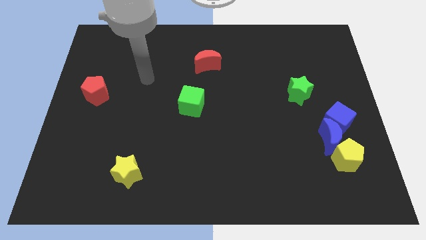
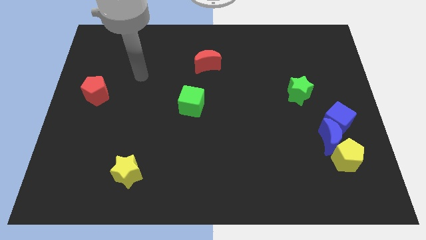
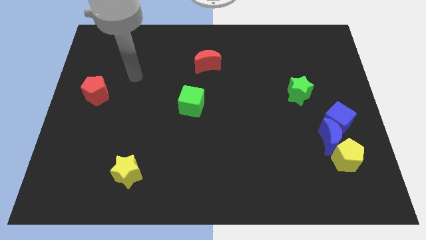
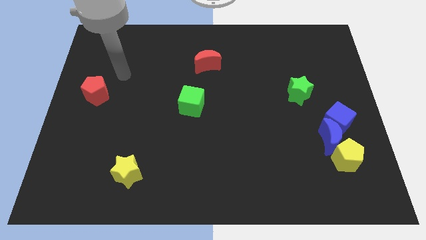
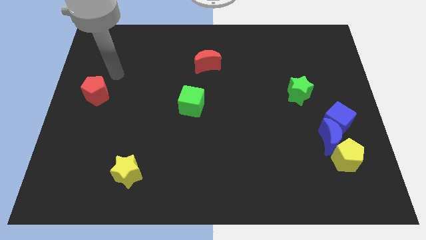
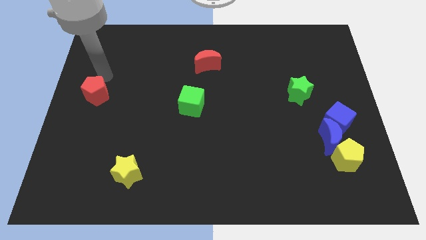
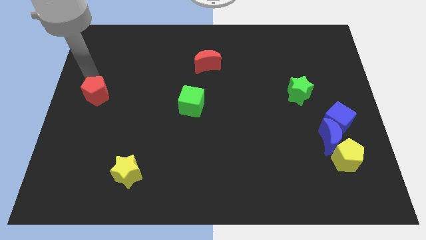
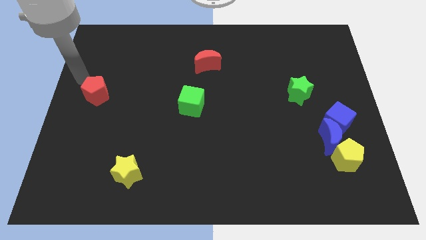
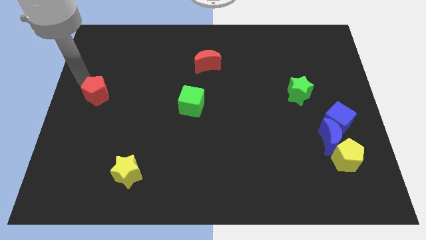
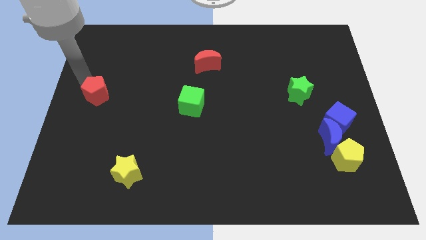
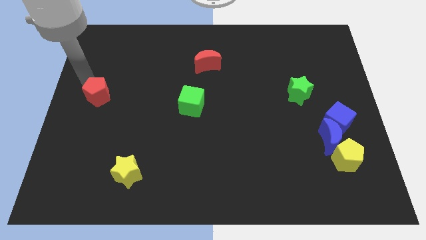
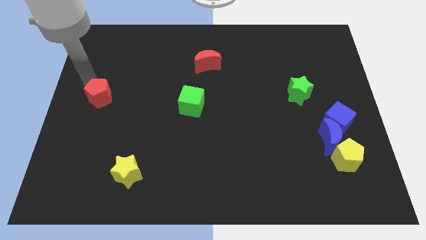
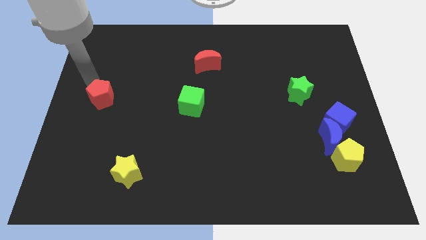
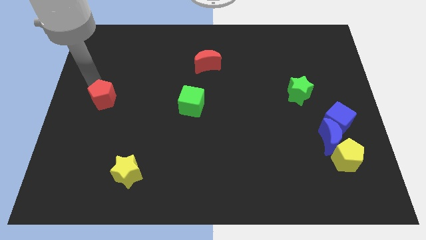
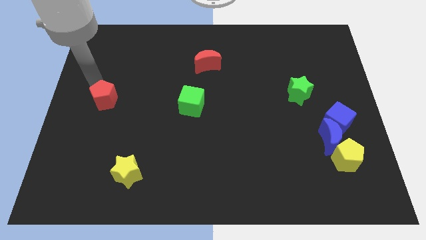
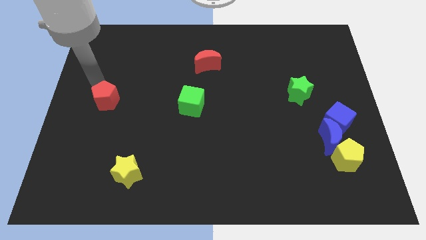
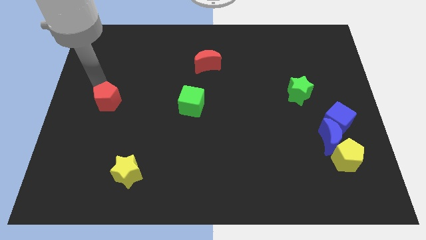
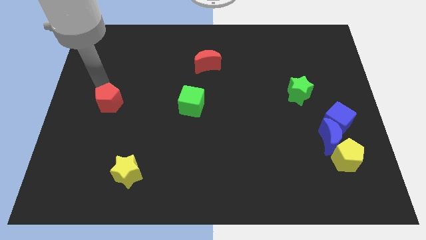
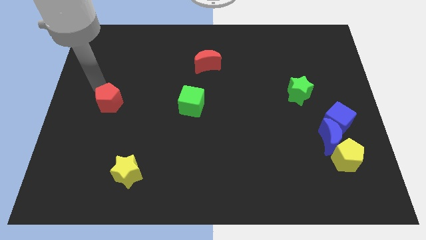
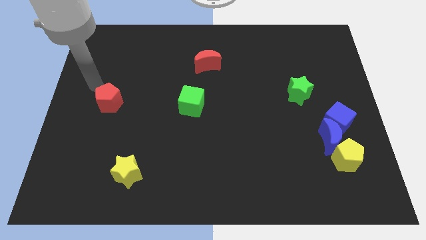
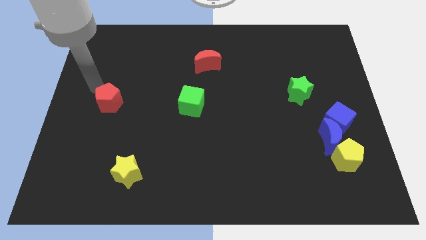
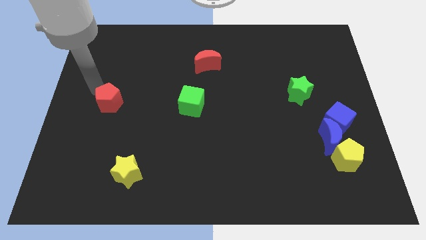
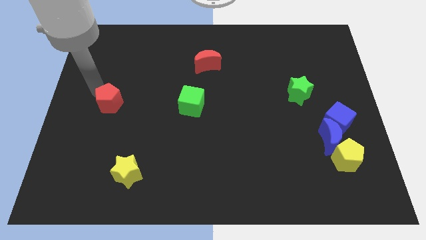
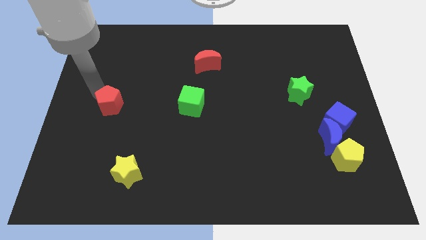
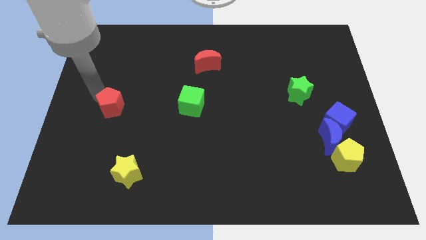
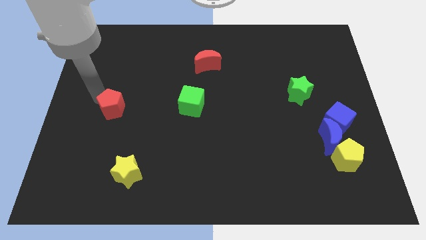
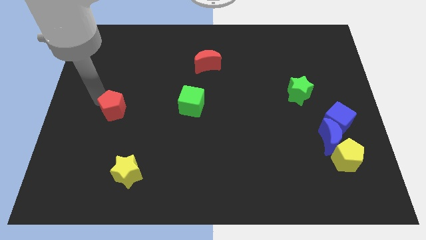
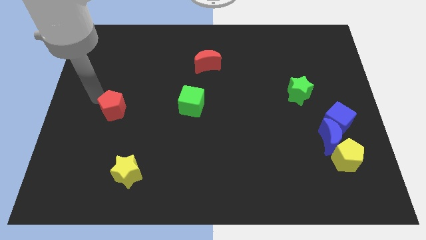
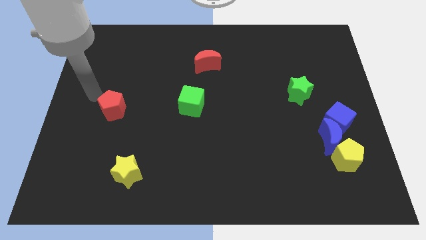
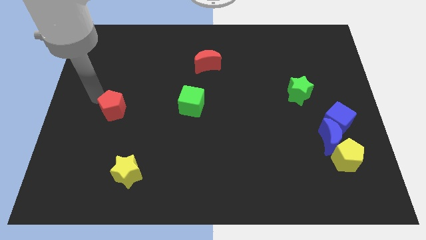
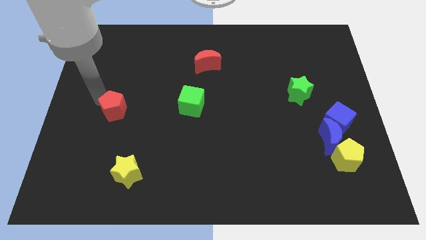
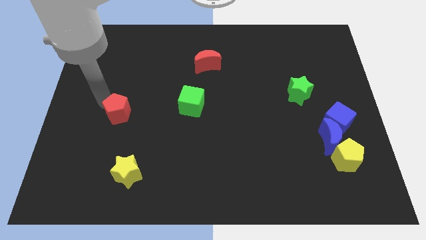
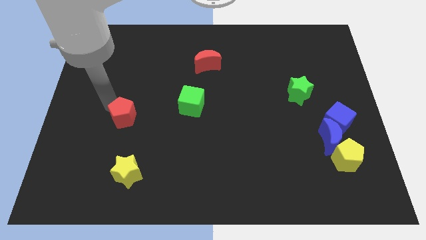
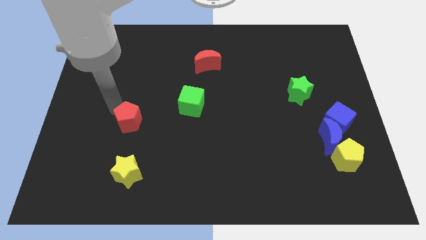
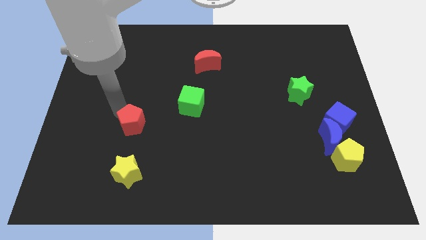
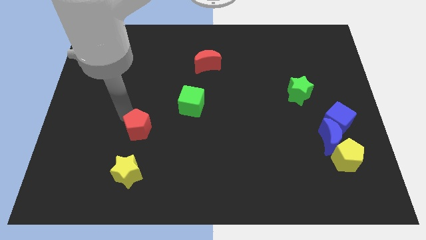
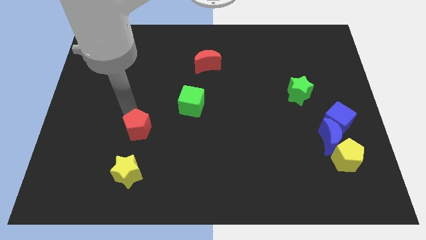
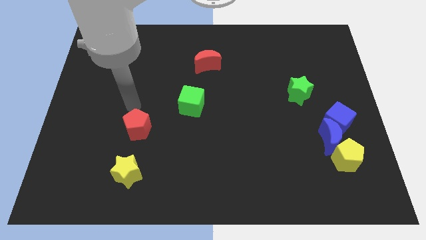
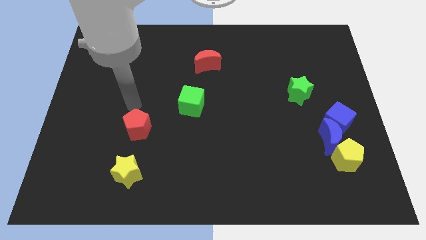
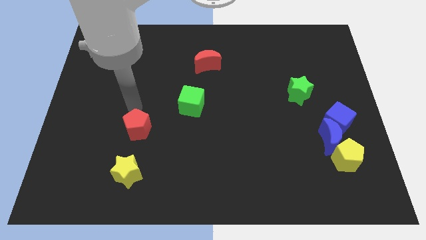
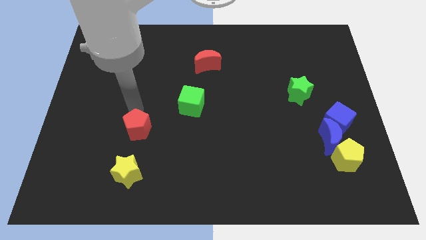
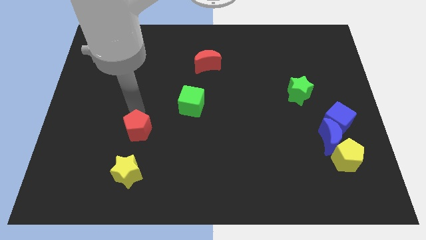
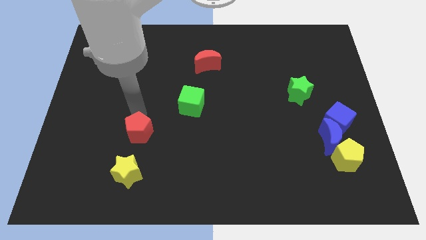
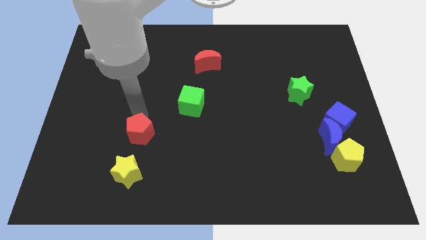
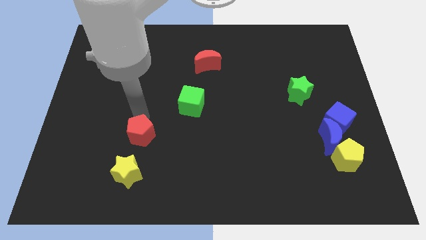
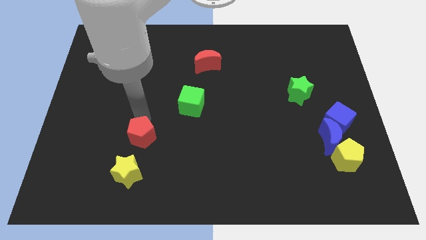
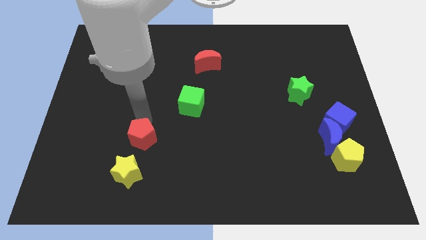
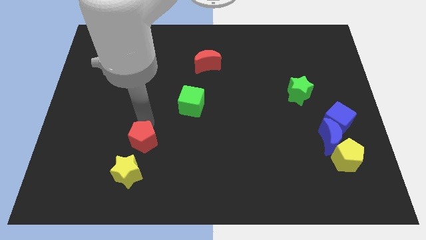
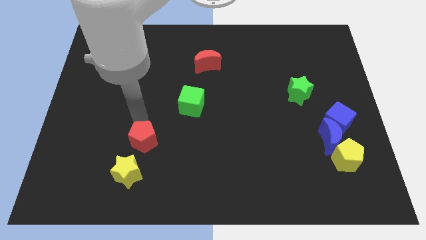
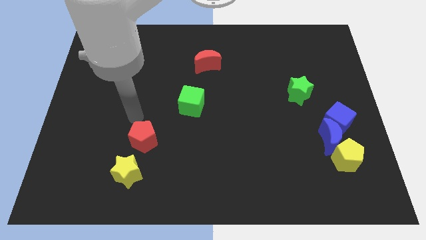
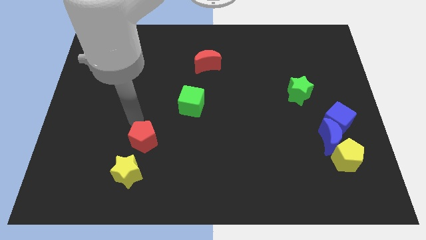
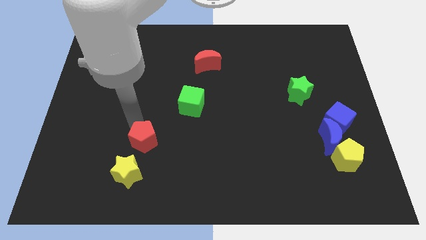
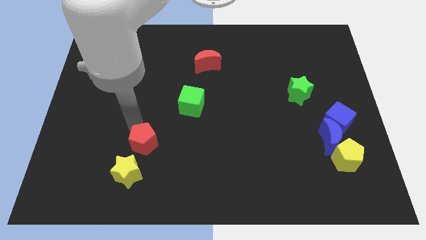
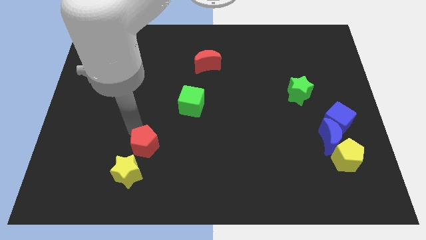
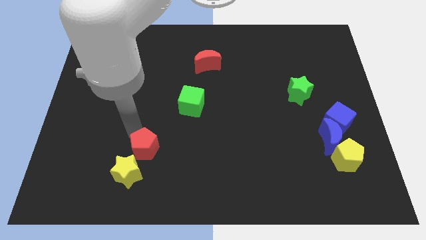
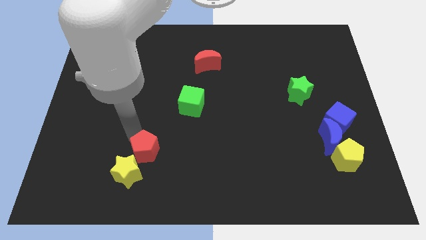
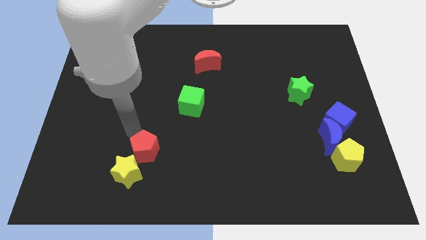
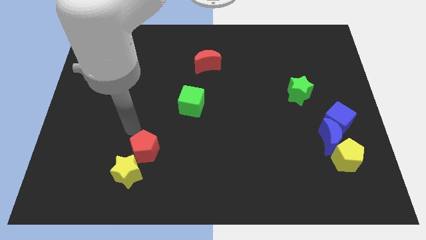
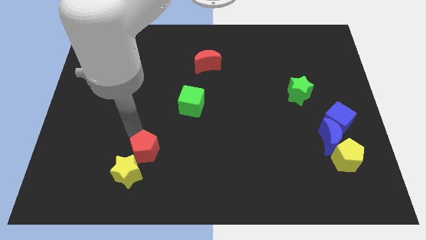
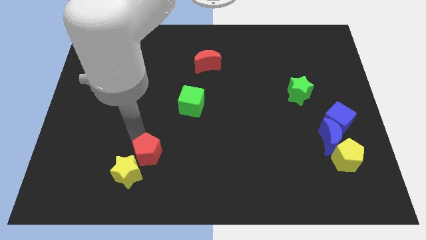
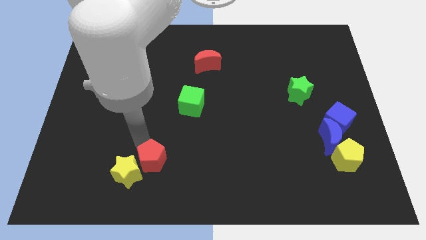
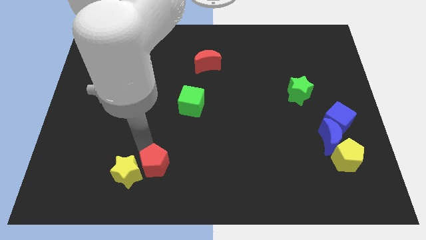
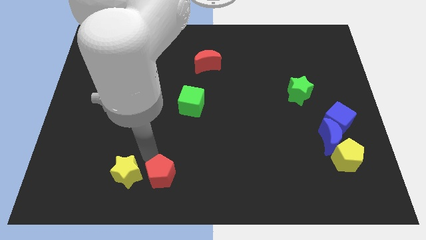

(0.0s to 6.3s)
put the red pentagon to the bottom
